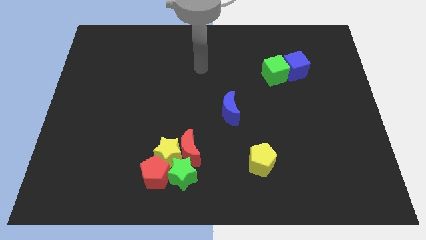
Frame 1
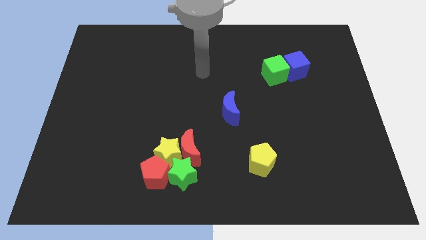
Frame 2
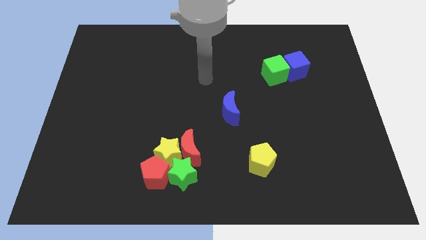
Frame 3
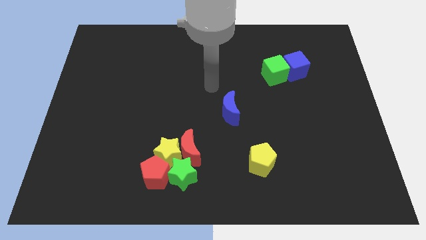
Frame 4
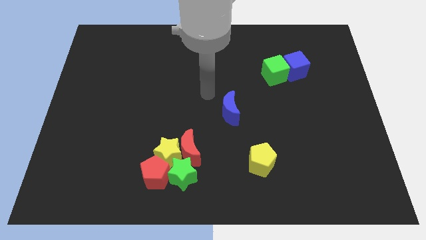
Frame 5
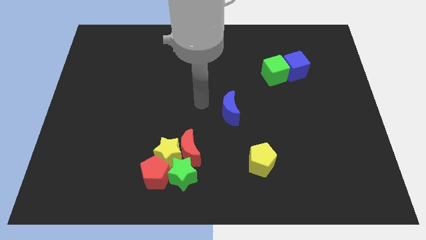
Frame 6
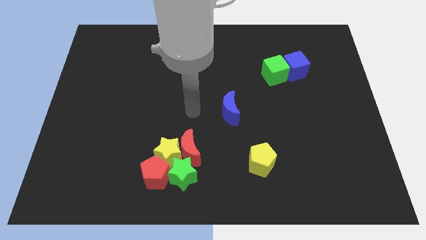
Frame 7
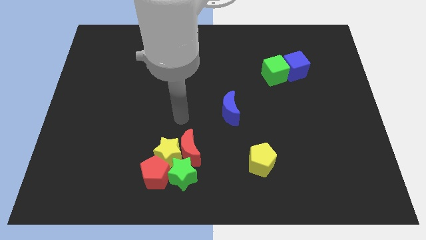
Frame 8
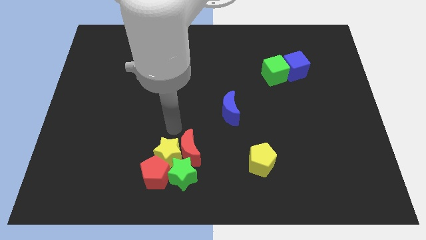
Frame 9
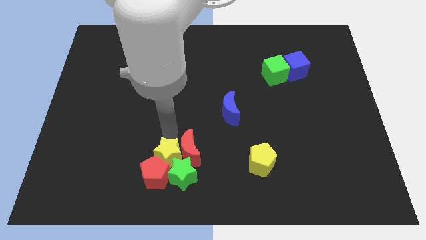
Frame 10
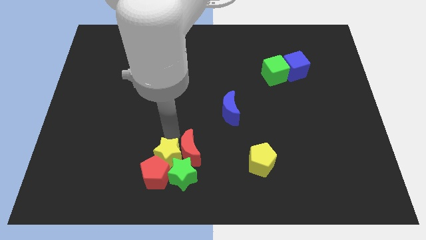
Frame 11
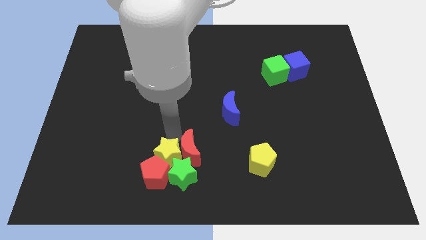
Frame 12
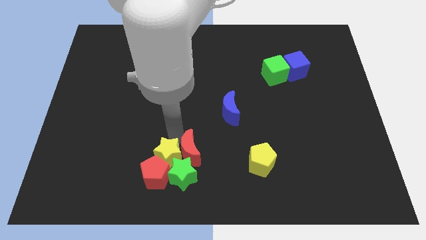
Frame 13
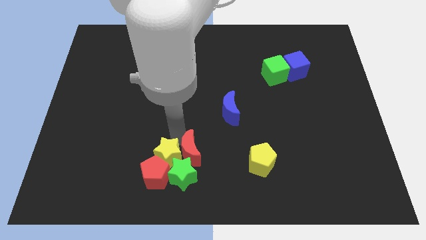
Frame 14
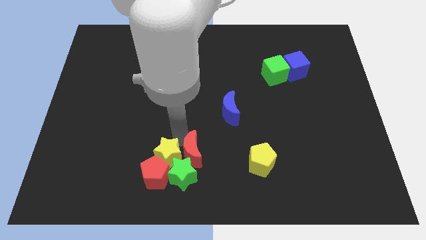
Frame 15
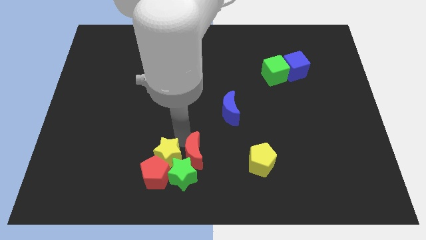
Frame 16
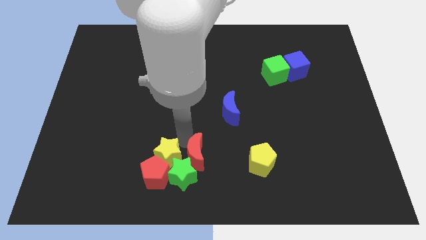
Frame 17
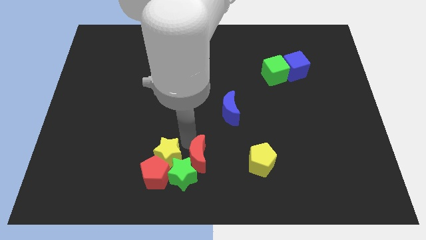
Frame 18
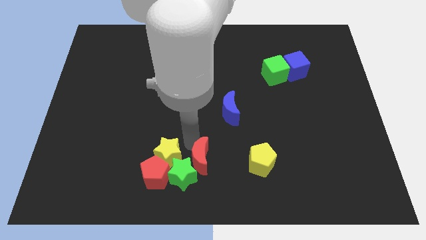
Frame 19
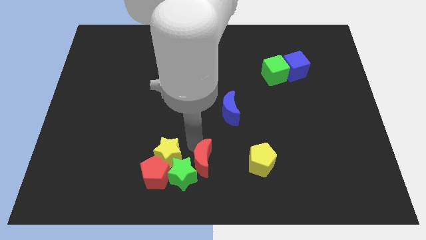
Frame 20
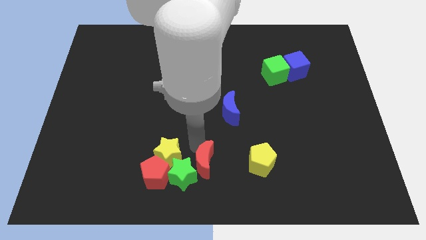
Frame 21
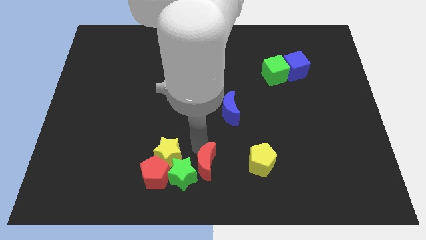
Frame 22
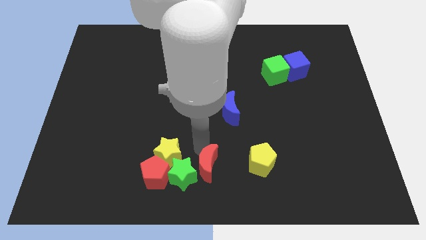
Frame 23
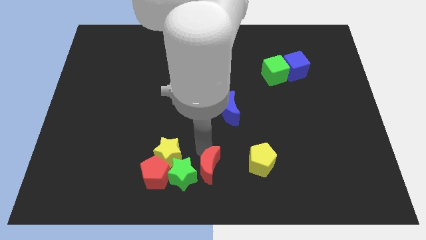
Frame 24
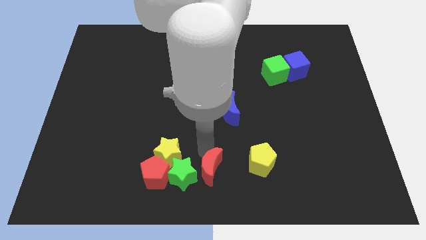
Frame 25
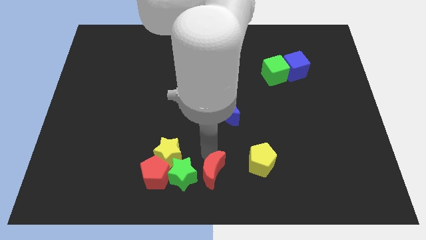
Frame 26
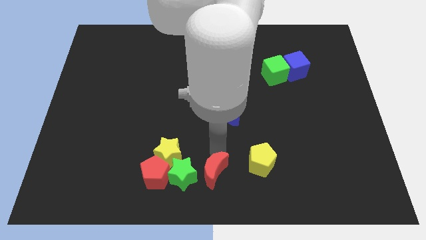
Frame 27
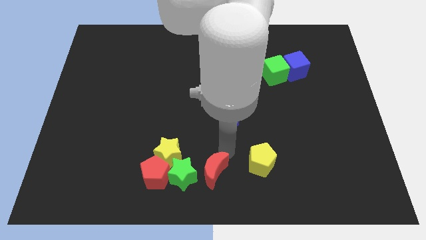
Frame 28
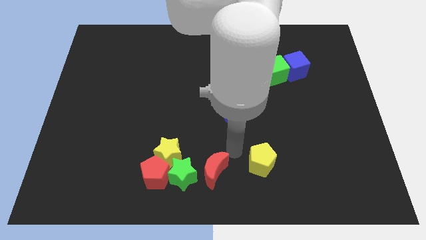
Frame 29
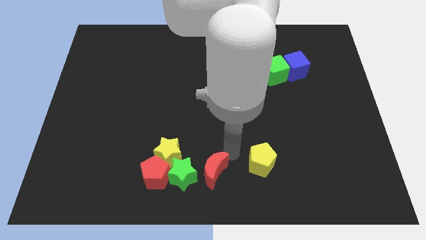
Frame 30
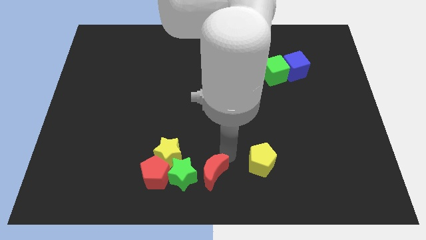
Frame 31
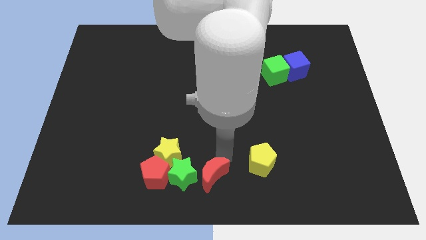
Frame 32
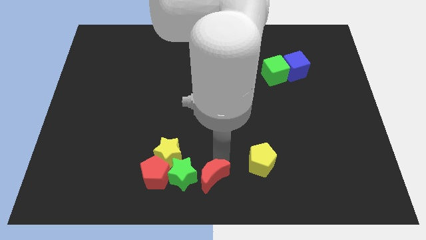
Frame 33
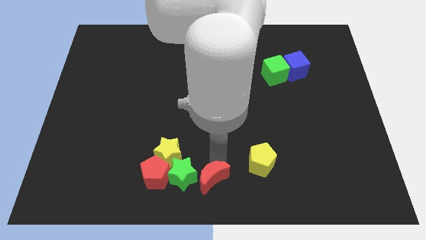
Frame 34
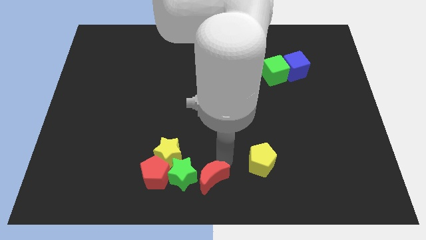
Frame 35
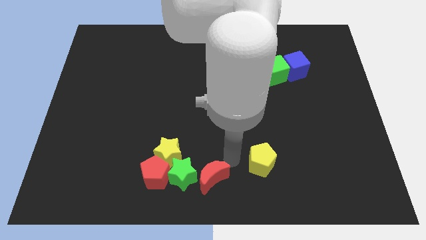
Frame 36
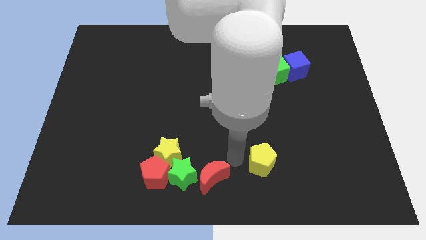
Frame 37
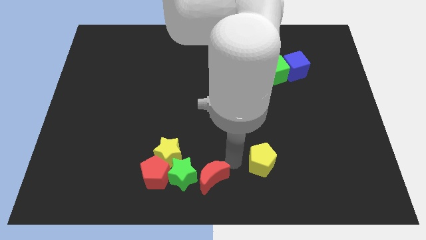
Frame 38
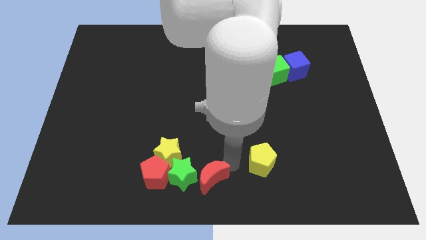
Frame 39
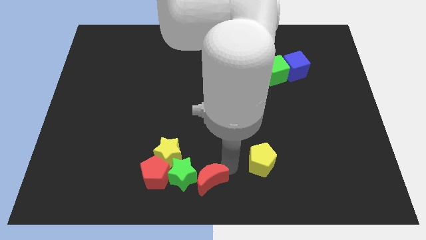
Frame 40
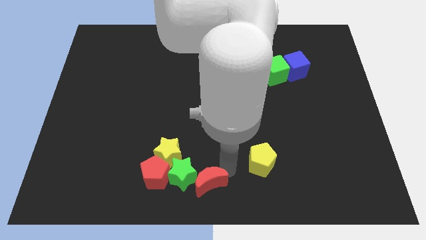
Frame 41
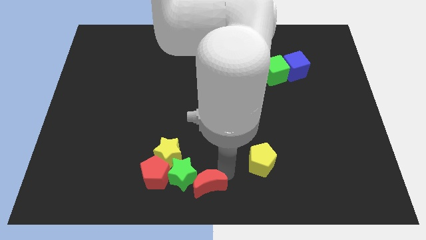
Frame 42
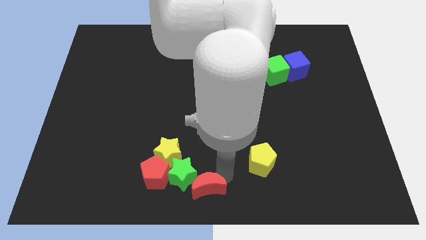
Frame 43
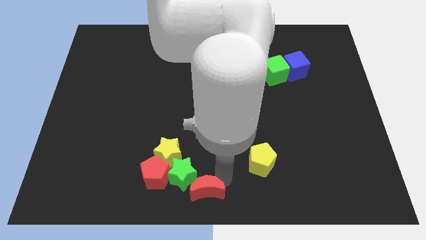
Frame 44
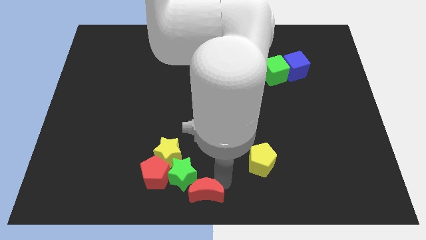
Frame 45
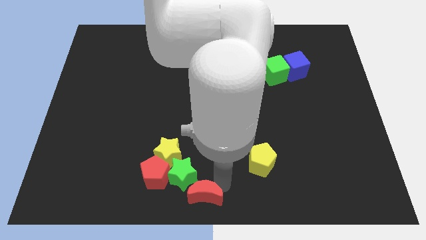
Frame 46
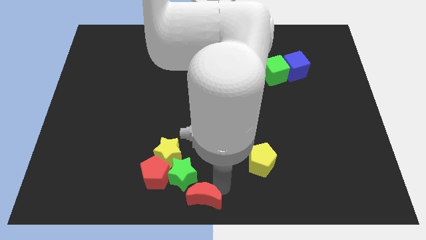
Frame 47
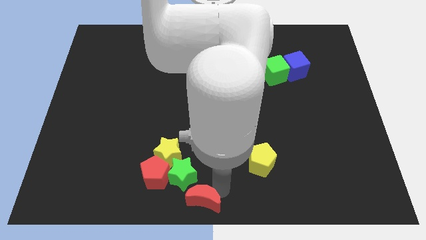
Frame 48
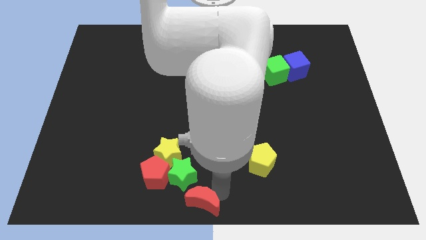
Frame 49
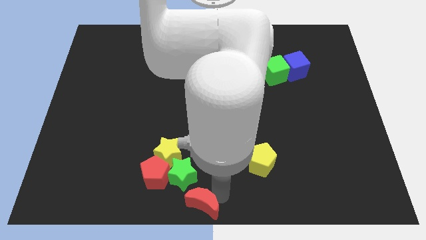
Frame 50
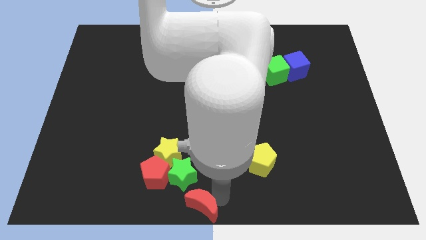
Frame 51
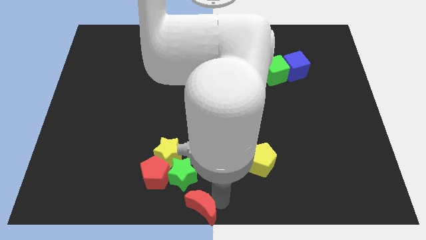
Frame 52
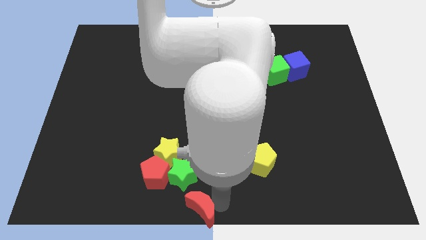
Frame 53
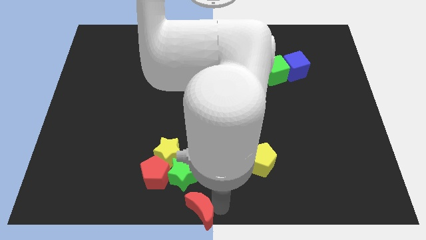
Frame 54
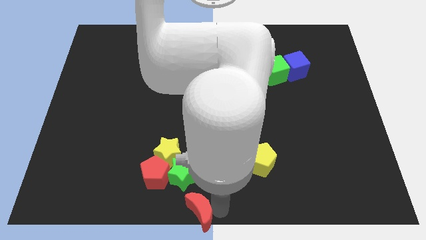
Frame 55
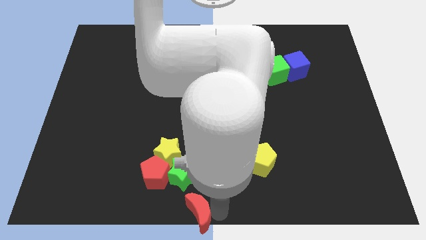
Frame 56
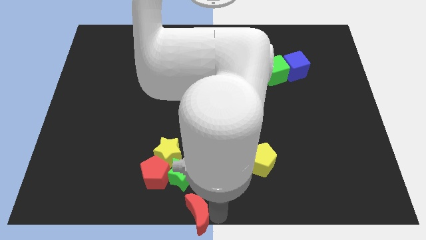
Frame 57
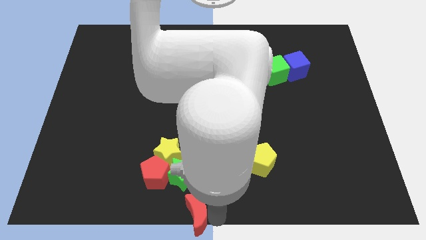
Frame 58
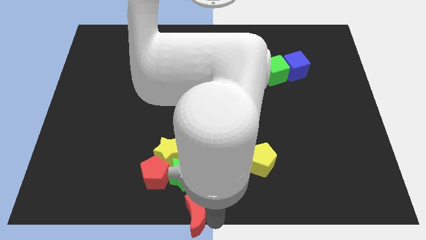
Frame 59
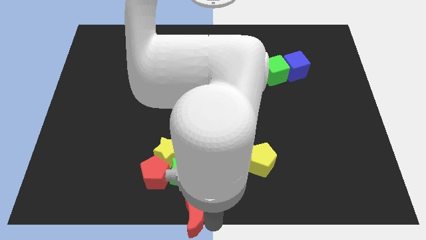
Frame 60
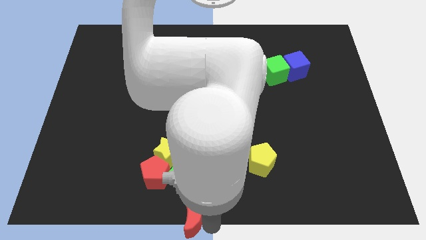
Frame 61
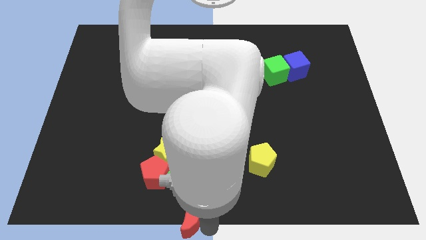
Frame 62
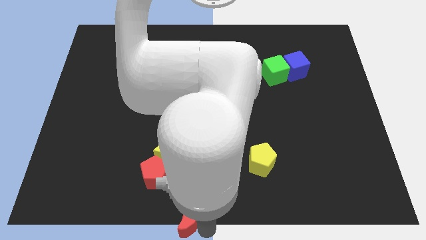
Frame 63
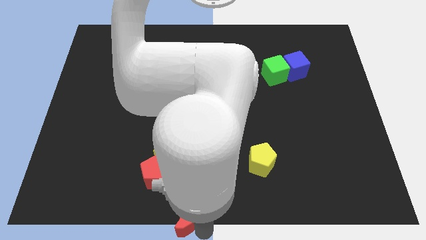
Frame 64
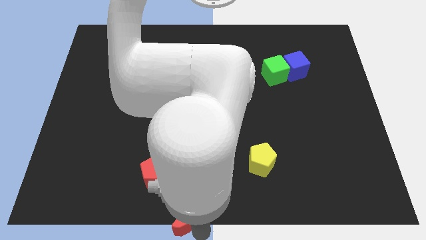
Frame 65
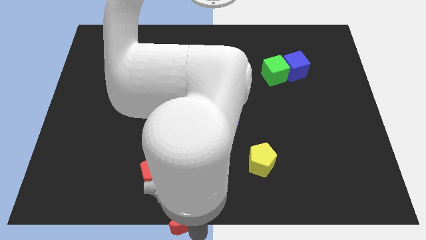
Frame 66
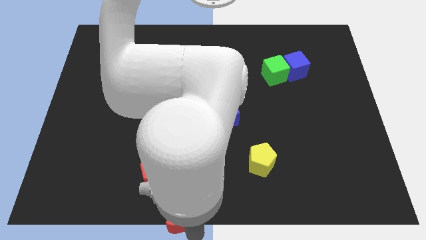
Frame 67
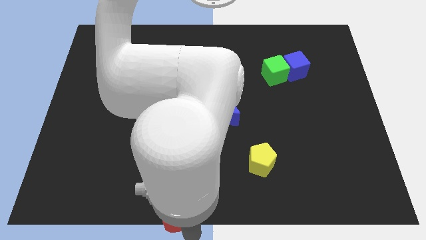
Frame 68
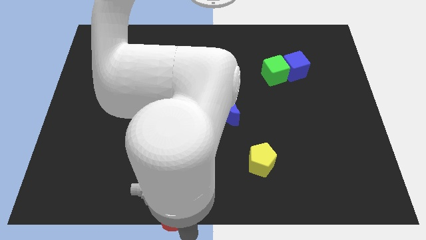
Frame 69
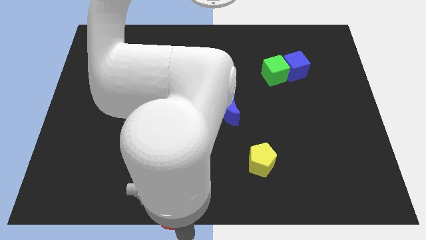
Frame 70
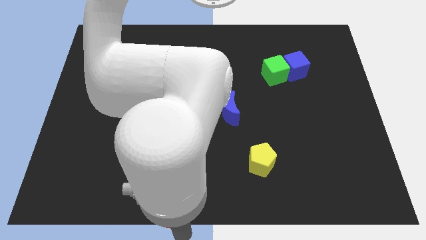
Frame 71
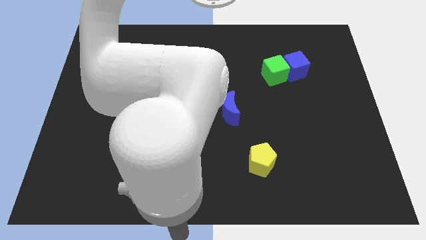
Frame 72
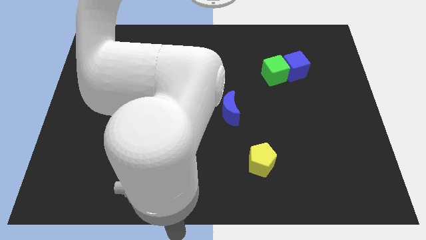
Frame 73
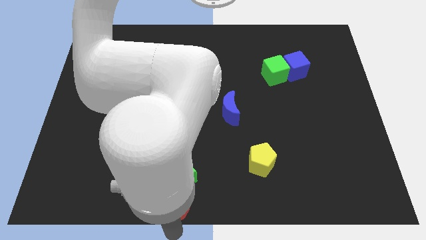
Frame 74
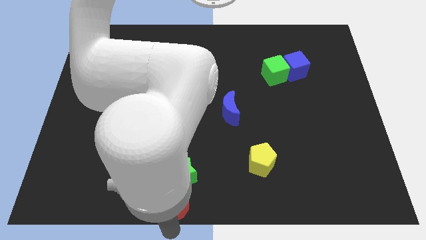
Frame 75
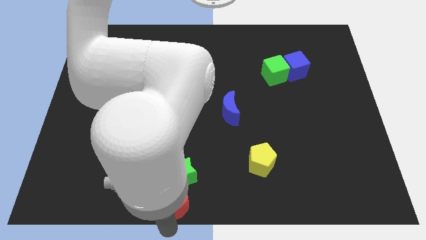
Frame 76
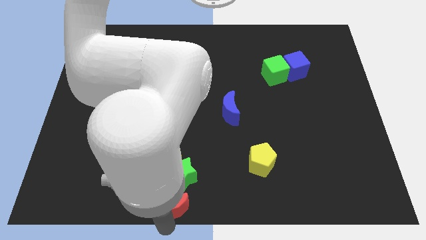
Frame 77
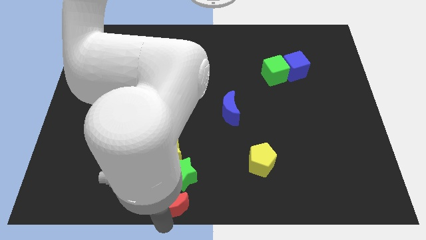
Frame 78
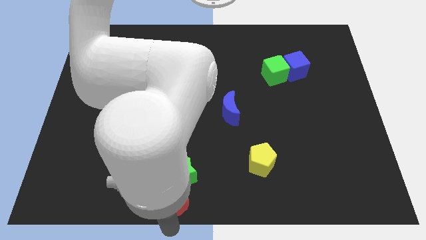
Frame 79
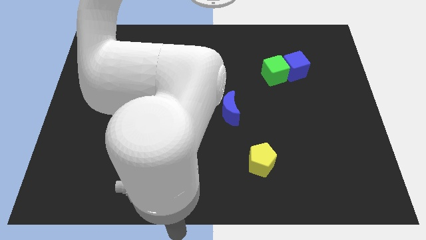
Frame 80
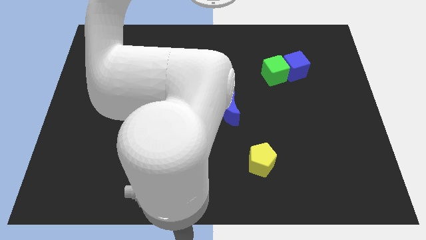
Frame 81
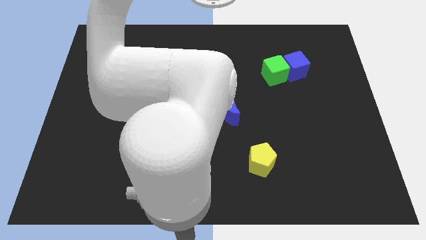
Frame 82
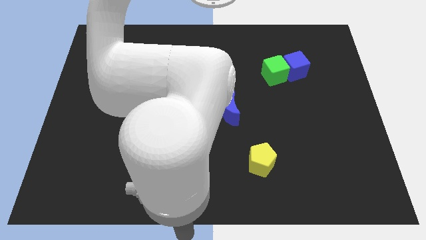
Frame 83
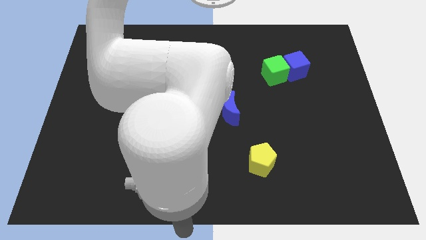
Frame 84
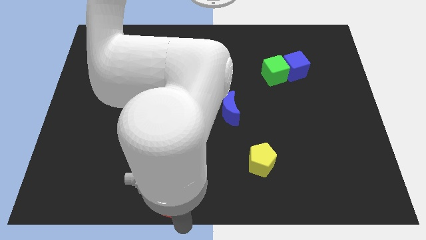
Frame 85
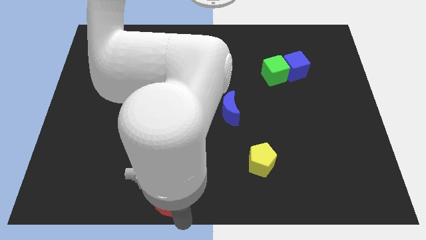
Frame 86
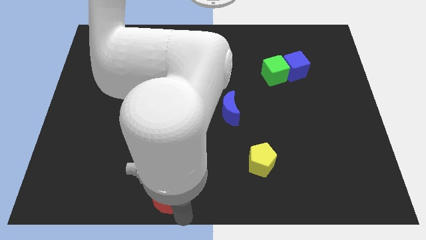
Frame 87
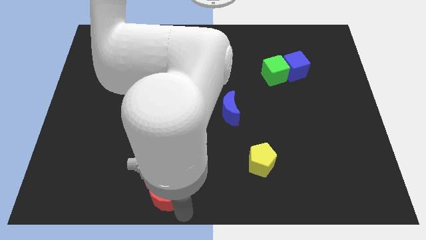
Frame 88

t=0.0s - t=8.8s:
slide the red moon close to the red pentagon
